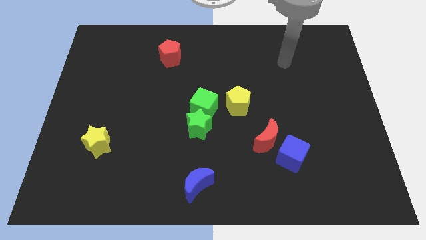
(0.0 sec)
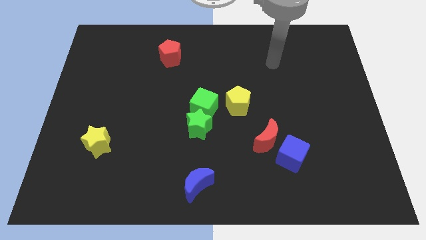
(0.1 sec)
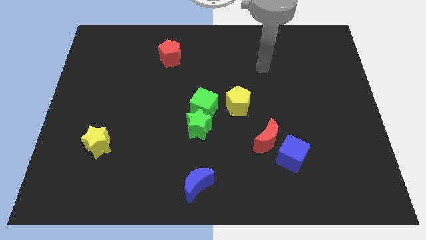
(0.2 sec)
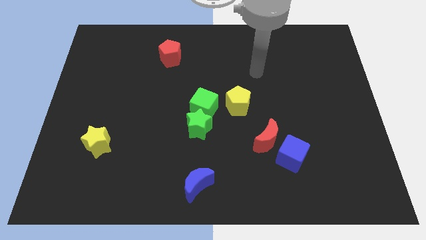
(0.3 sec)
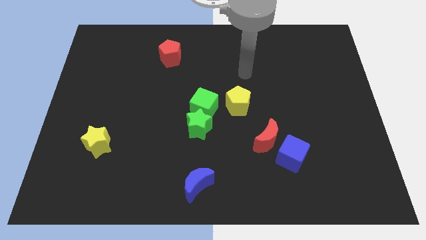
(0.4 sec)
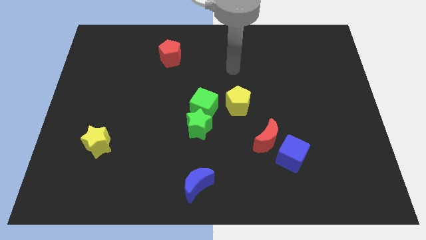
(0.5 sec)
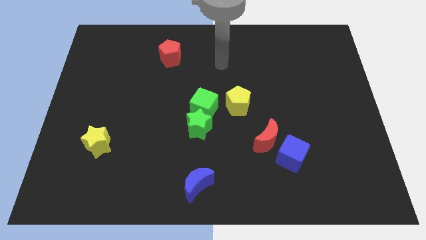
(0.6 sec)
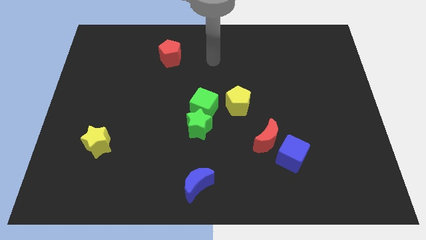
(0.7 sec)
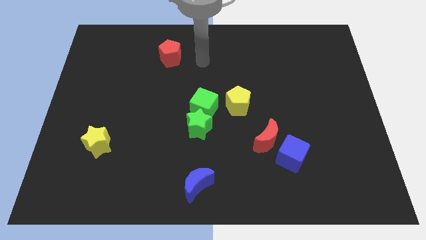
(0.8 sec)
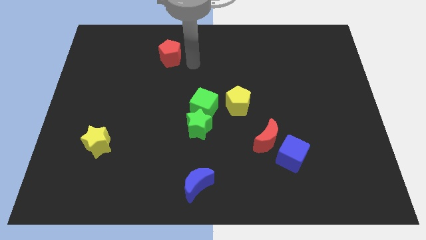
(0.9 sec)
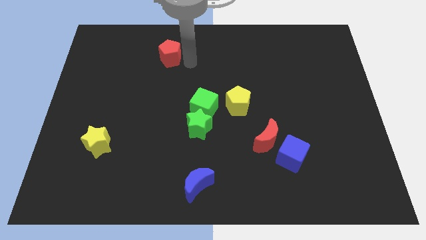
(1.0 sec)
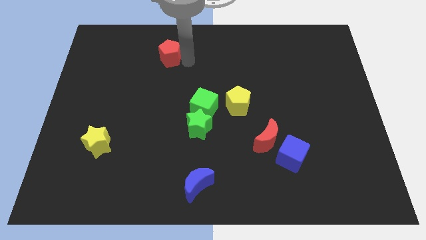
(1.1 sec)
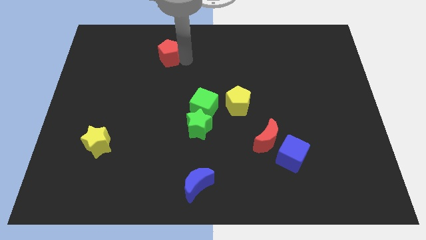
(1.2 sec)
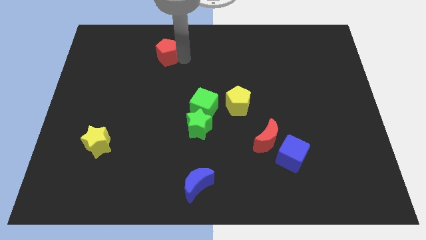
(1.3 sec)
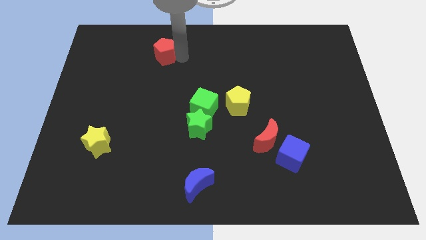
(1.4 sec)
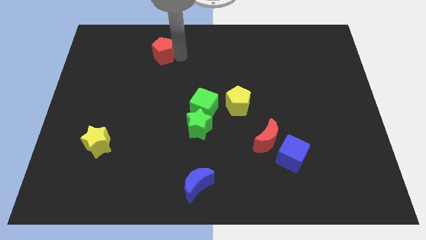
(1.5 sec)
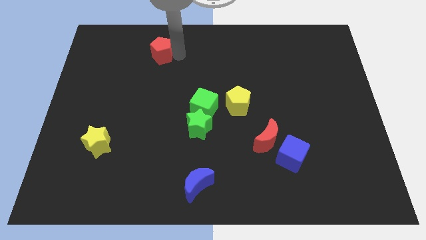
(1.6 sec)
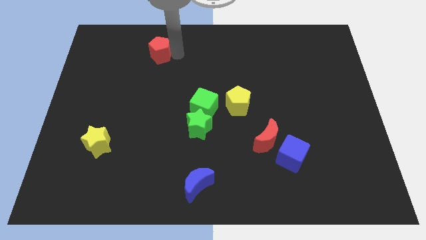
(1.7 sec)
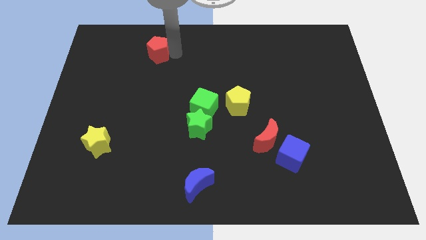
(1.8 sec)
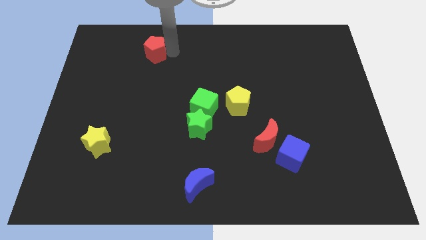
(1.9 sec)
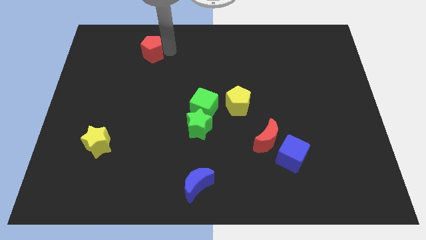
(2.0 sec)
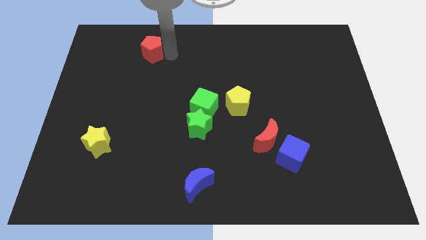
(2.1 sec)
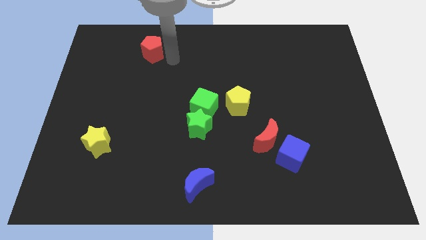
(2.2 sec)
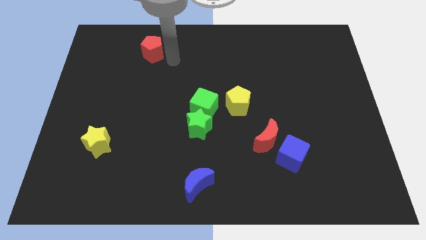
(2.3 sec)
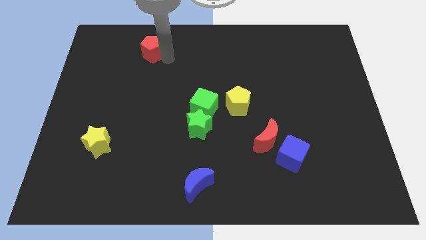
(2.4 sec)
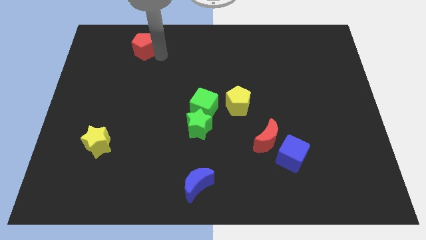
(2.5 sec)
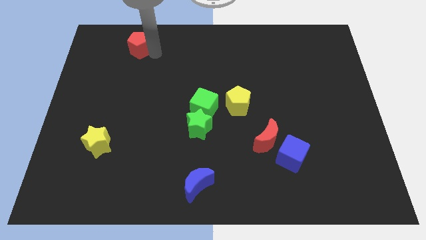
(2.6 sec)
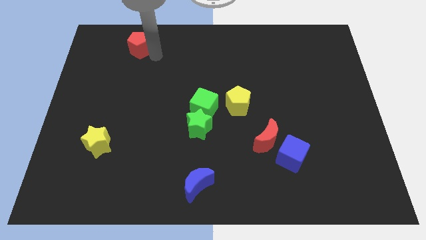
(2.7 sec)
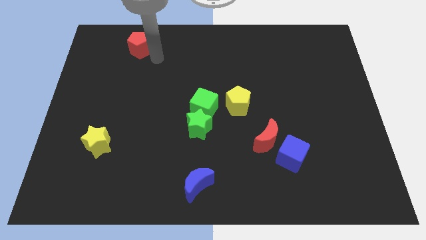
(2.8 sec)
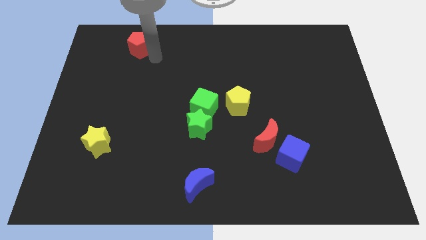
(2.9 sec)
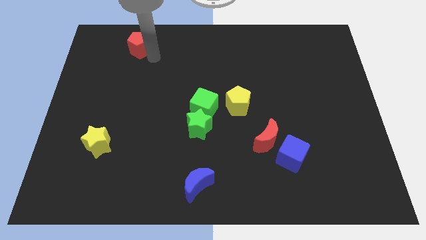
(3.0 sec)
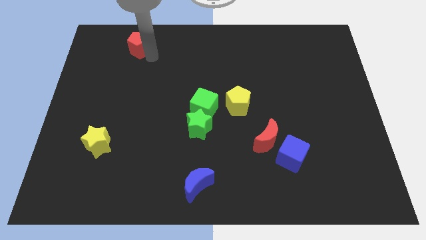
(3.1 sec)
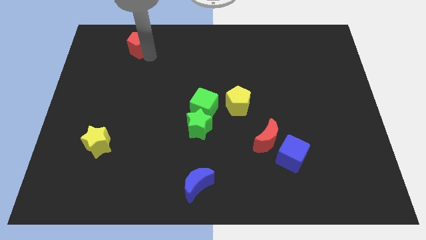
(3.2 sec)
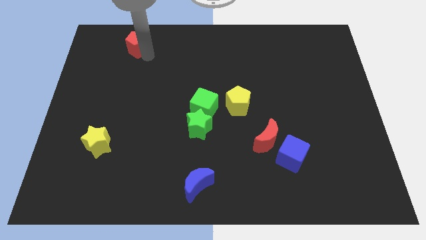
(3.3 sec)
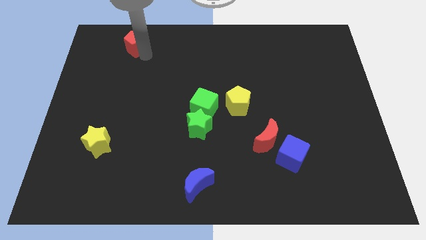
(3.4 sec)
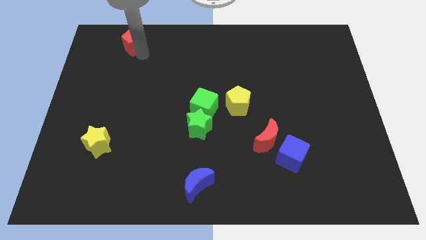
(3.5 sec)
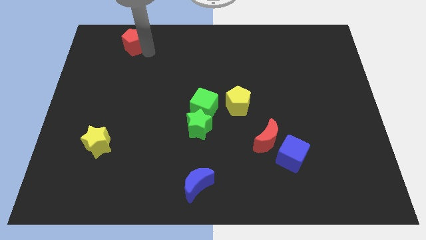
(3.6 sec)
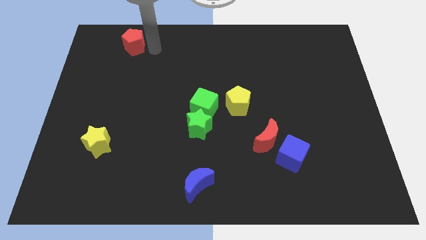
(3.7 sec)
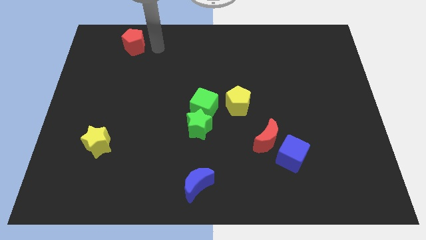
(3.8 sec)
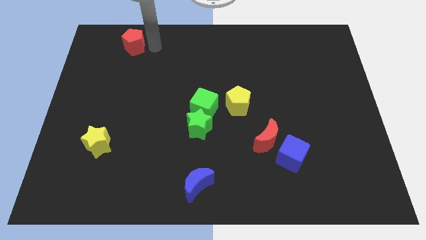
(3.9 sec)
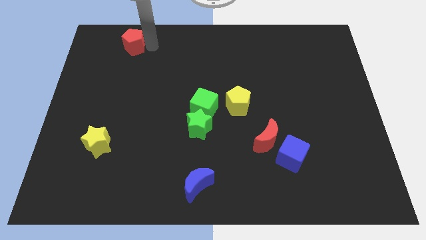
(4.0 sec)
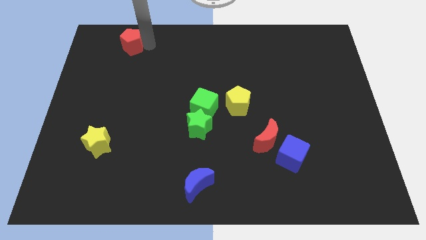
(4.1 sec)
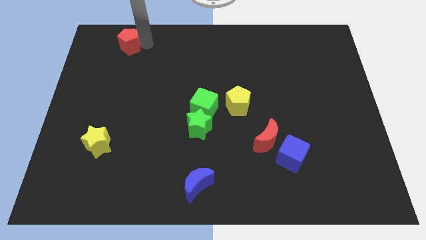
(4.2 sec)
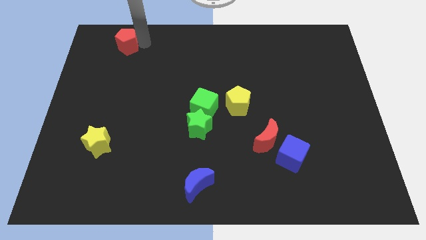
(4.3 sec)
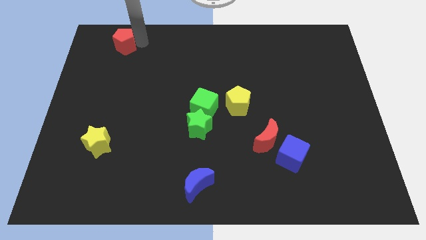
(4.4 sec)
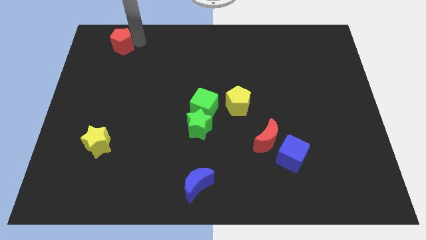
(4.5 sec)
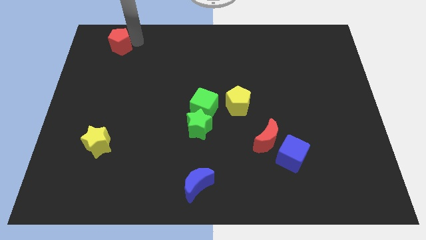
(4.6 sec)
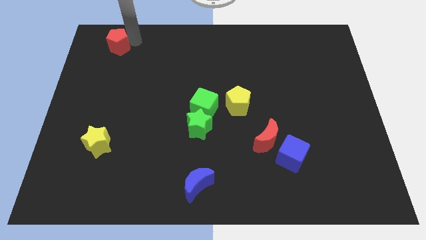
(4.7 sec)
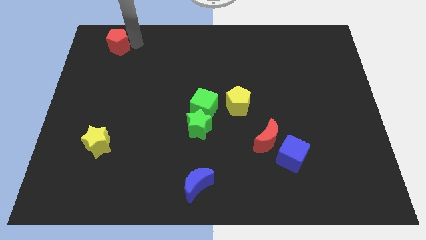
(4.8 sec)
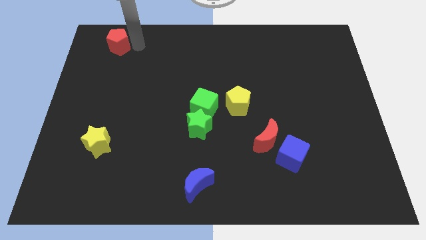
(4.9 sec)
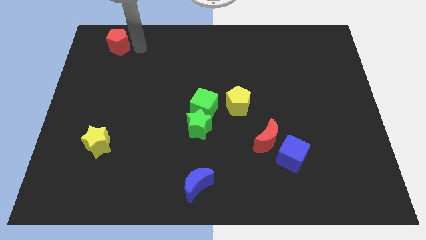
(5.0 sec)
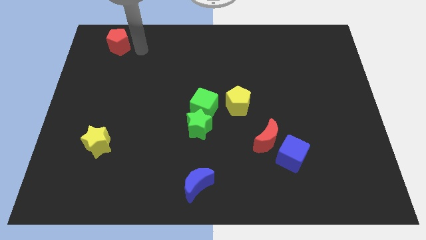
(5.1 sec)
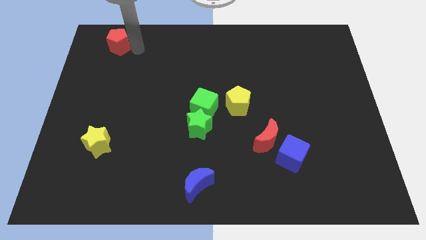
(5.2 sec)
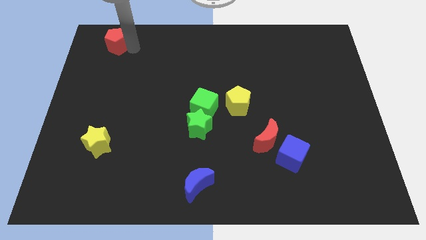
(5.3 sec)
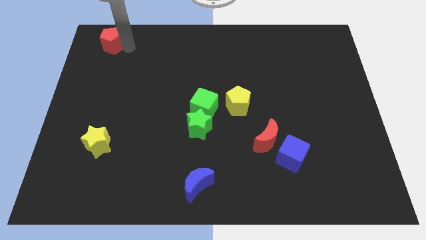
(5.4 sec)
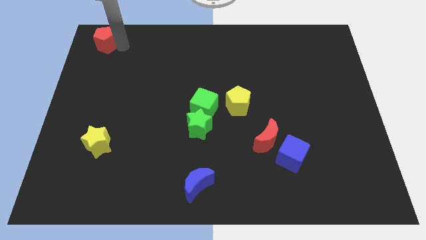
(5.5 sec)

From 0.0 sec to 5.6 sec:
slide the red pentagon to the top left

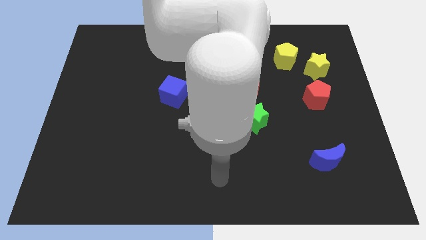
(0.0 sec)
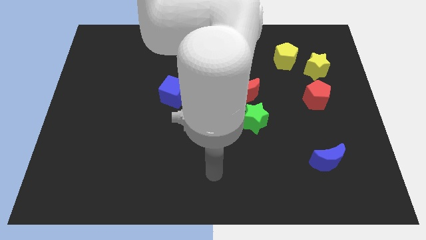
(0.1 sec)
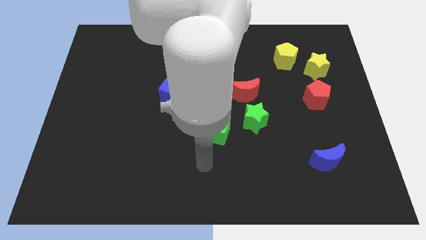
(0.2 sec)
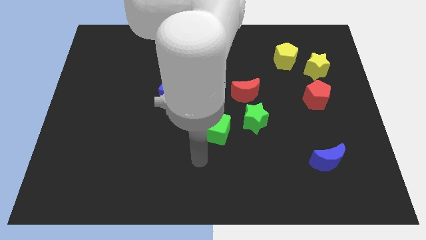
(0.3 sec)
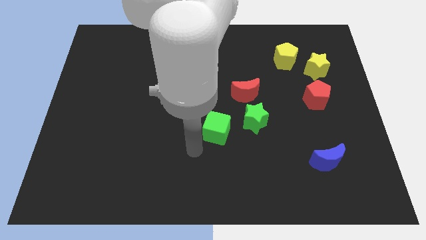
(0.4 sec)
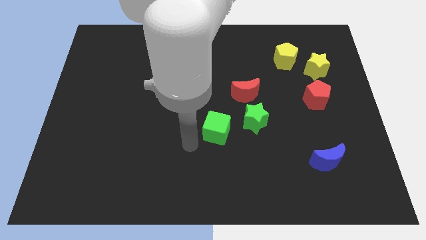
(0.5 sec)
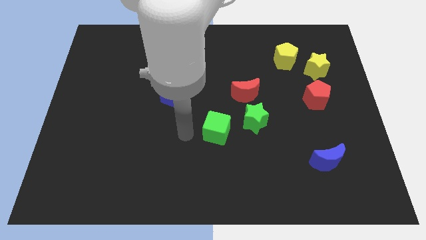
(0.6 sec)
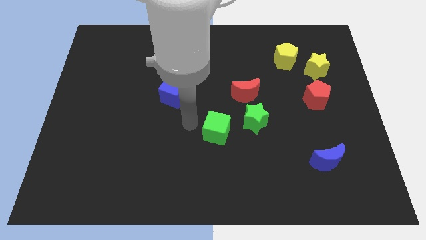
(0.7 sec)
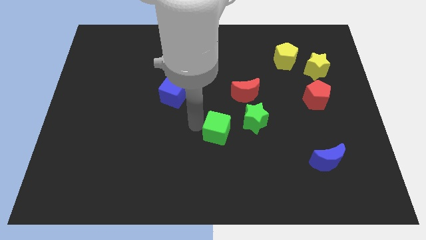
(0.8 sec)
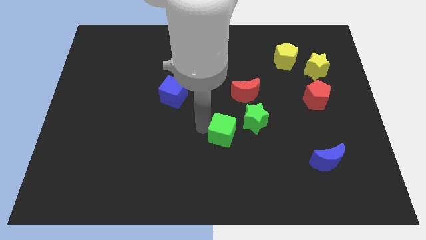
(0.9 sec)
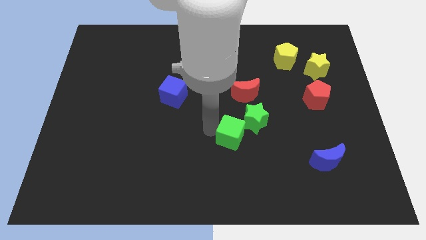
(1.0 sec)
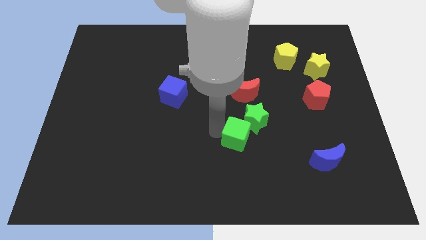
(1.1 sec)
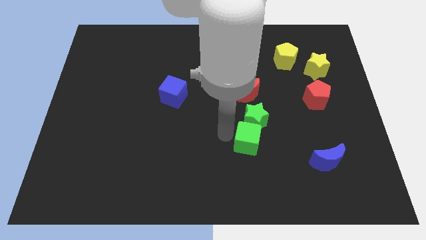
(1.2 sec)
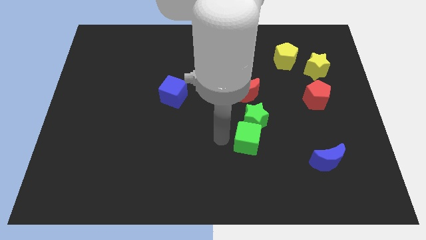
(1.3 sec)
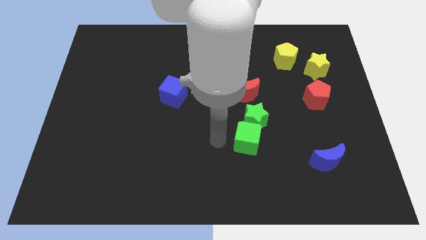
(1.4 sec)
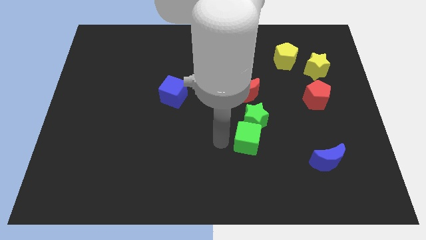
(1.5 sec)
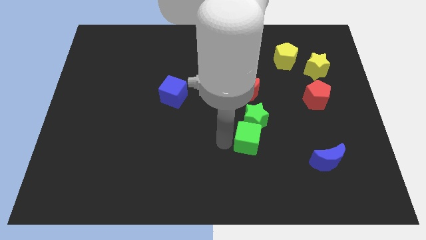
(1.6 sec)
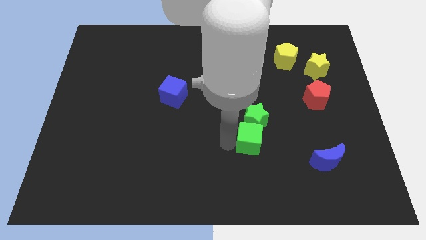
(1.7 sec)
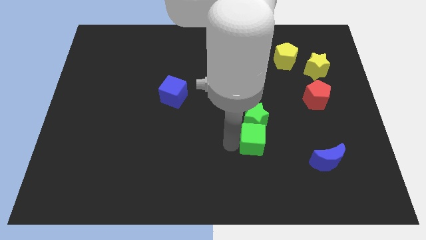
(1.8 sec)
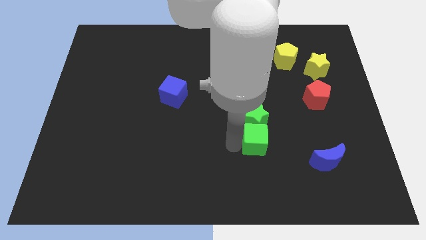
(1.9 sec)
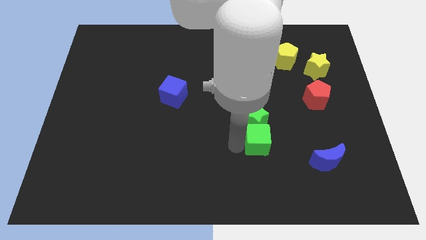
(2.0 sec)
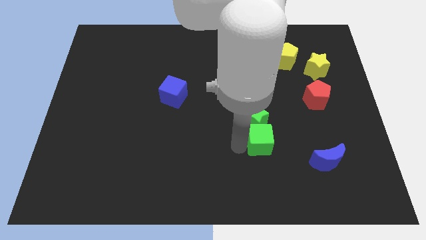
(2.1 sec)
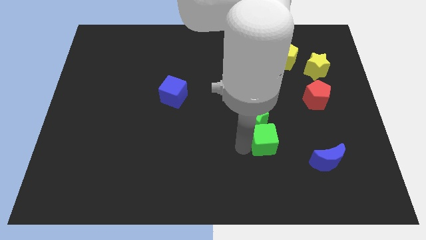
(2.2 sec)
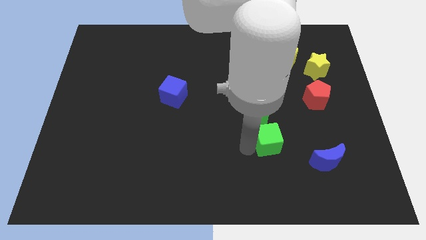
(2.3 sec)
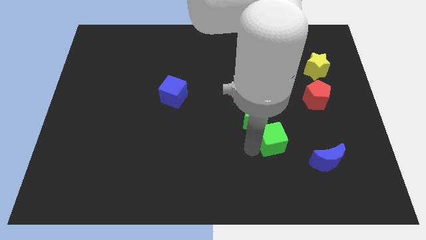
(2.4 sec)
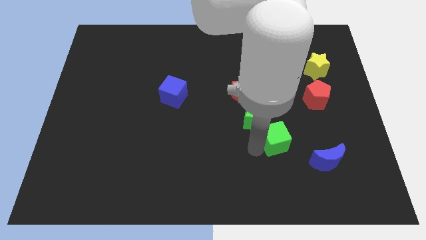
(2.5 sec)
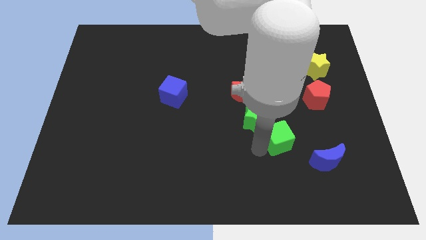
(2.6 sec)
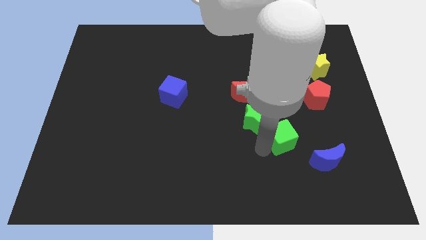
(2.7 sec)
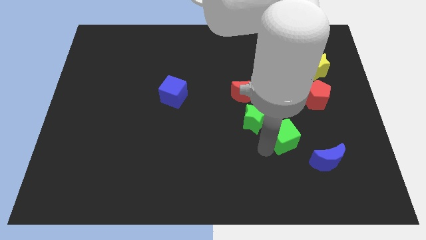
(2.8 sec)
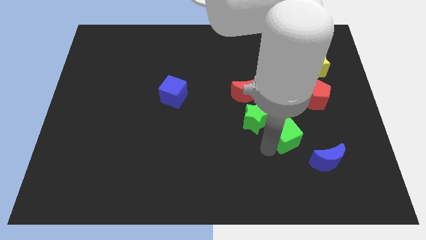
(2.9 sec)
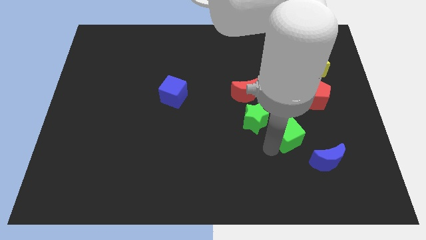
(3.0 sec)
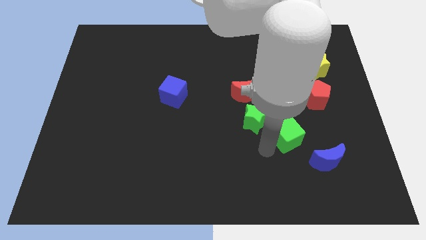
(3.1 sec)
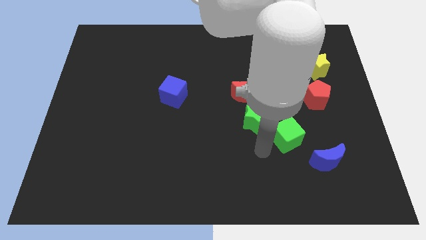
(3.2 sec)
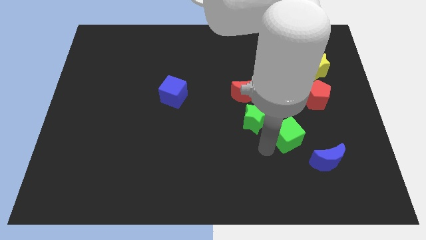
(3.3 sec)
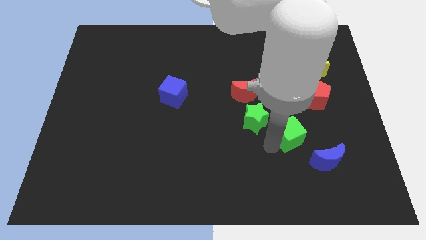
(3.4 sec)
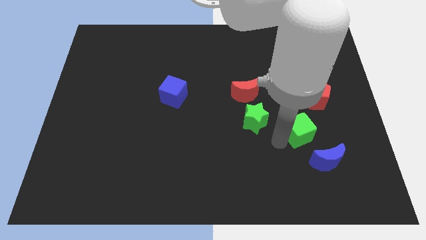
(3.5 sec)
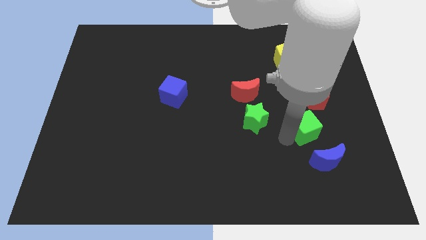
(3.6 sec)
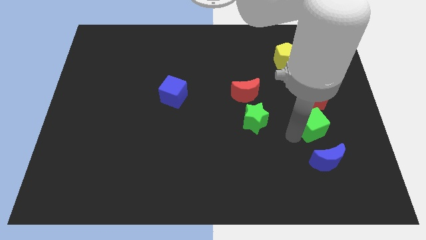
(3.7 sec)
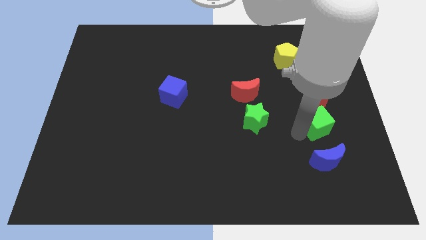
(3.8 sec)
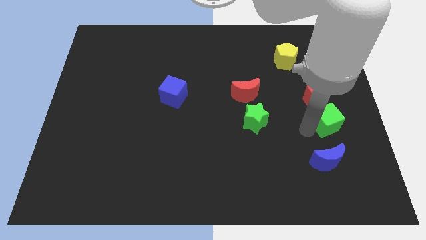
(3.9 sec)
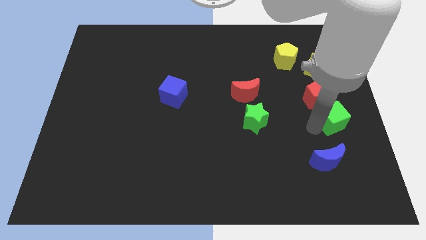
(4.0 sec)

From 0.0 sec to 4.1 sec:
slide the green cube to the center right
